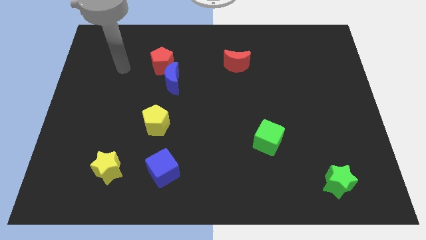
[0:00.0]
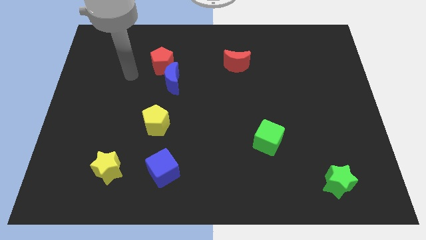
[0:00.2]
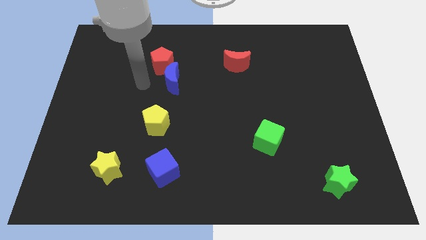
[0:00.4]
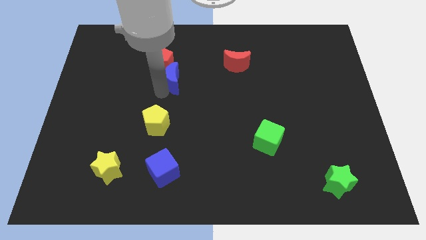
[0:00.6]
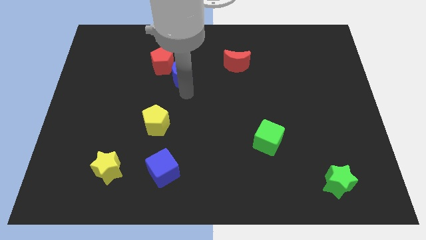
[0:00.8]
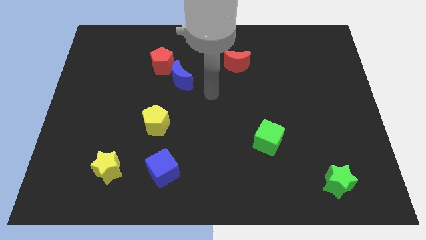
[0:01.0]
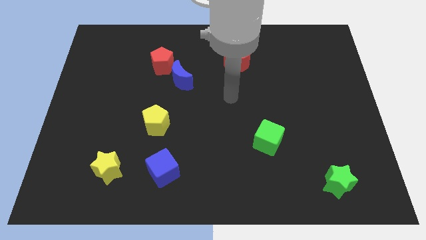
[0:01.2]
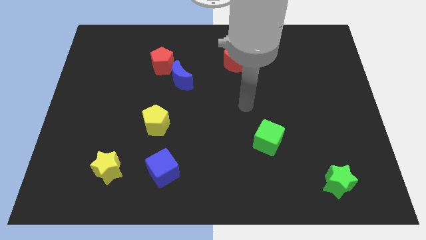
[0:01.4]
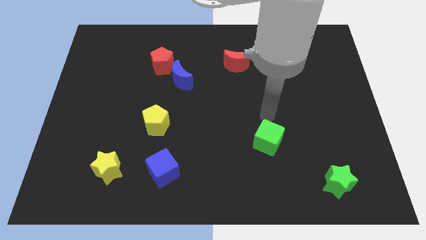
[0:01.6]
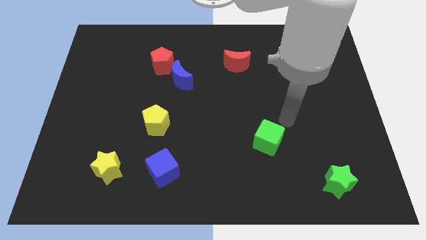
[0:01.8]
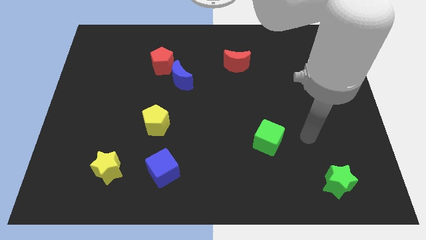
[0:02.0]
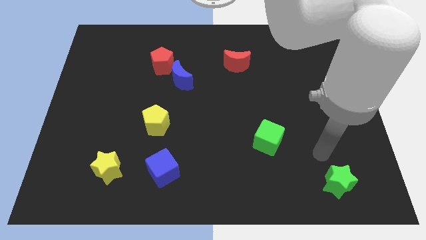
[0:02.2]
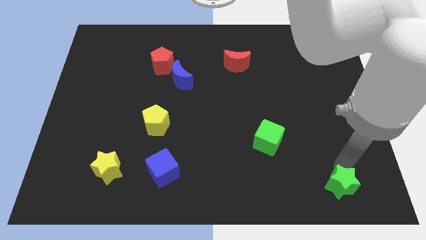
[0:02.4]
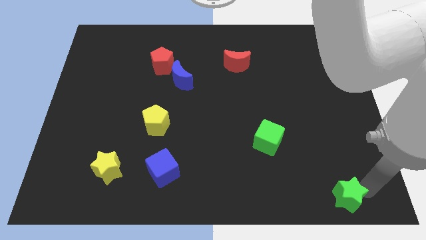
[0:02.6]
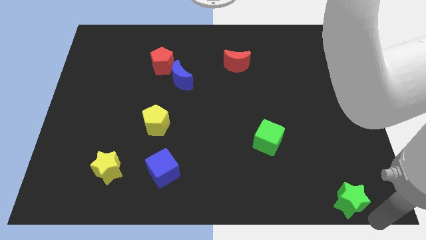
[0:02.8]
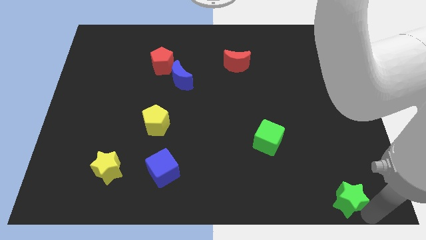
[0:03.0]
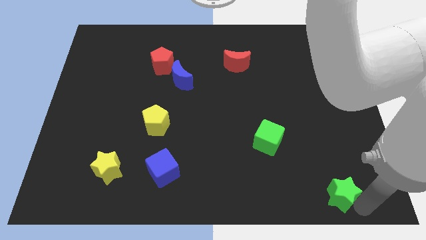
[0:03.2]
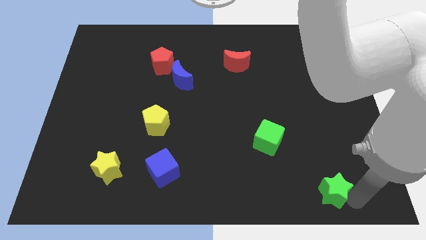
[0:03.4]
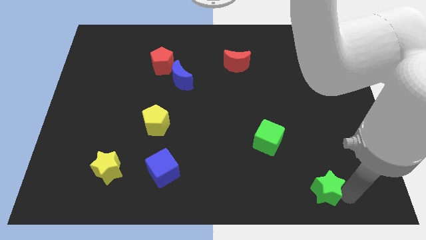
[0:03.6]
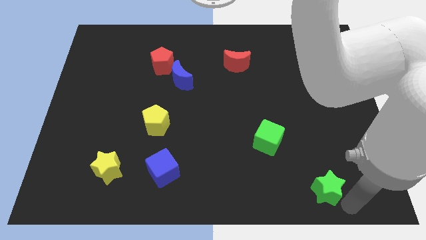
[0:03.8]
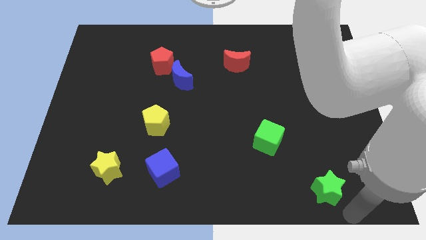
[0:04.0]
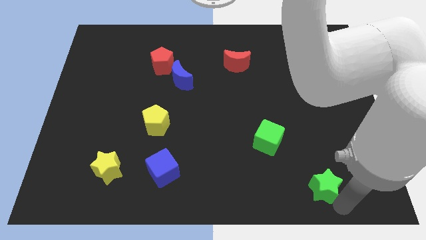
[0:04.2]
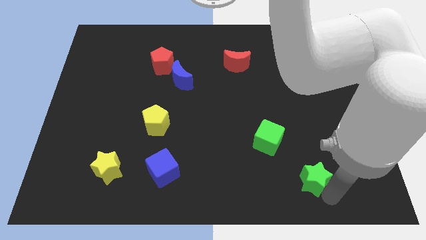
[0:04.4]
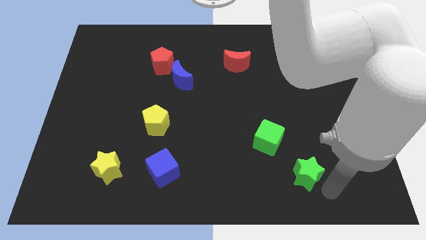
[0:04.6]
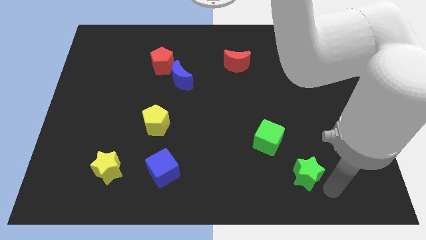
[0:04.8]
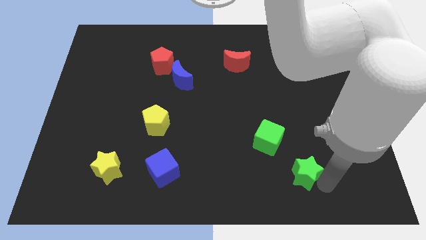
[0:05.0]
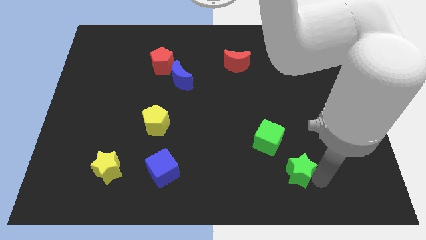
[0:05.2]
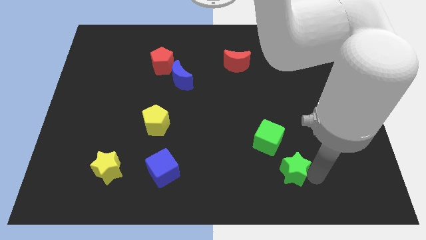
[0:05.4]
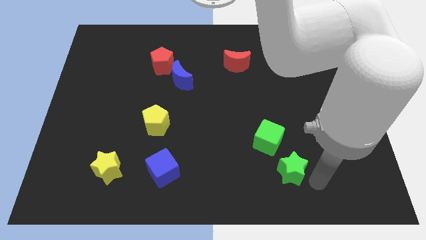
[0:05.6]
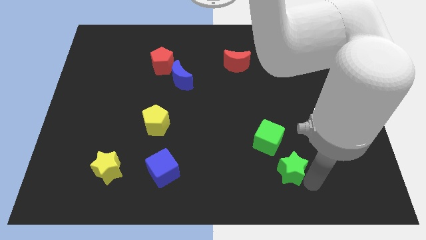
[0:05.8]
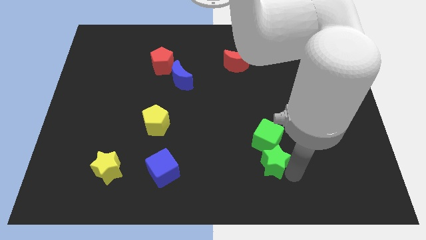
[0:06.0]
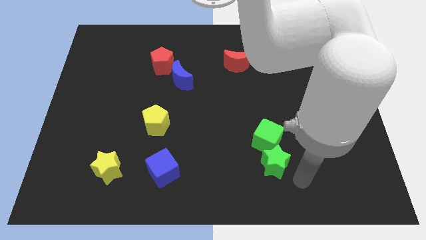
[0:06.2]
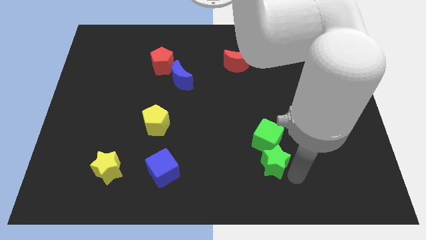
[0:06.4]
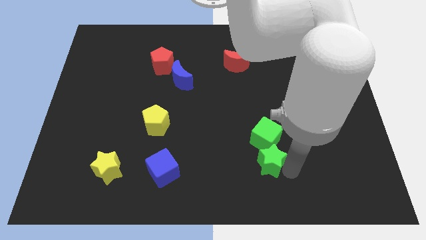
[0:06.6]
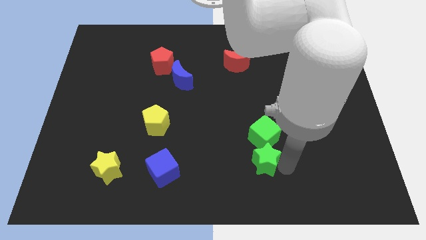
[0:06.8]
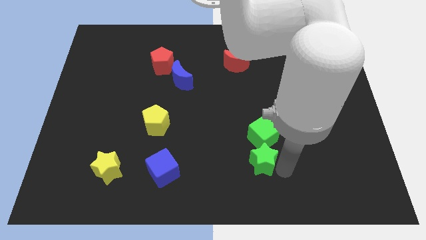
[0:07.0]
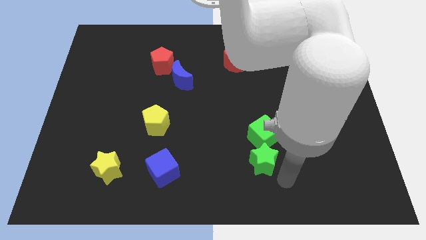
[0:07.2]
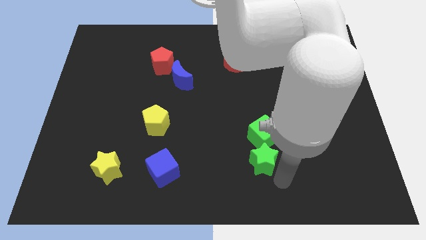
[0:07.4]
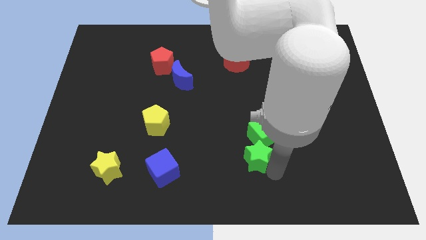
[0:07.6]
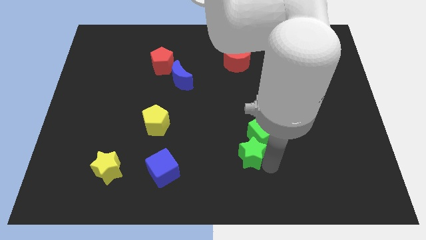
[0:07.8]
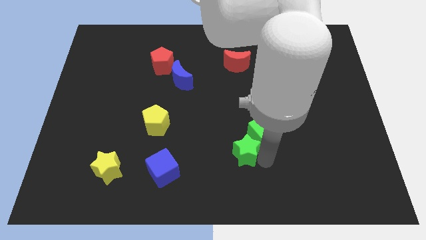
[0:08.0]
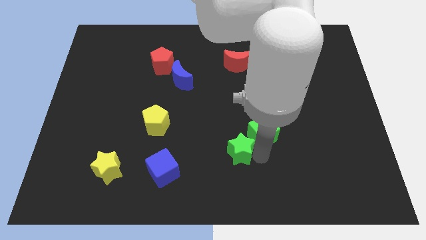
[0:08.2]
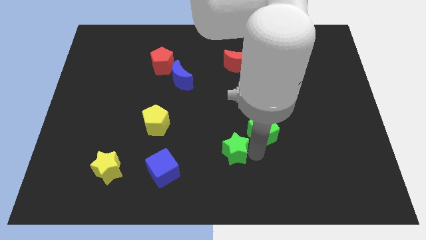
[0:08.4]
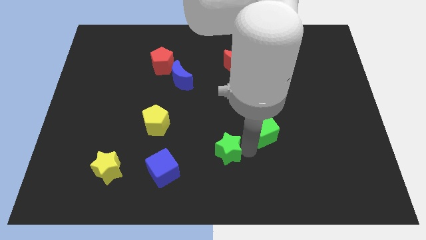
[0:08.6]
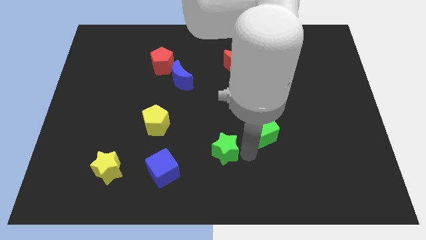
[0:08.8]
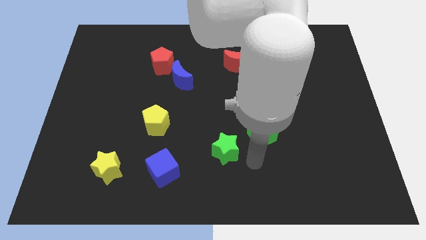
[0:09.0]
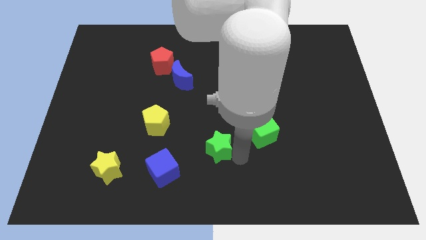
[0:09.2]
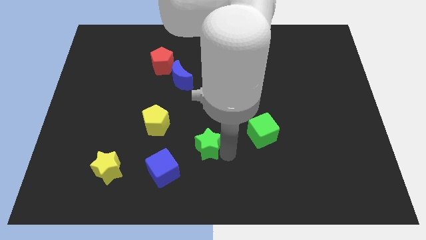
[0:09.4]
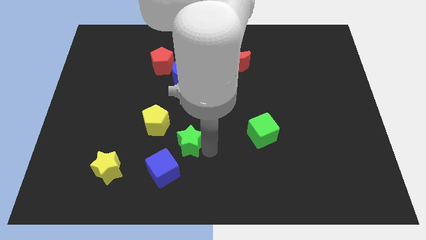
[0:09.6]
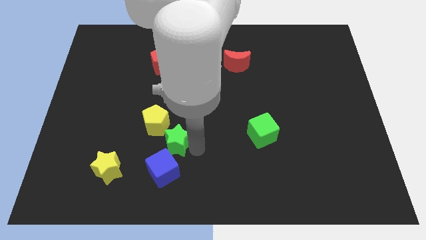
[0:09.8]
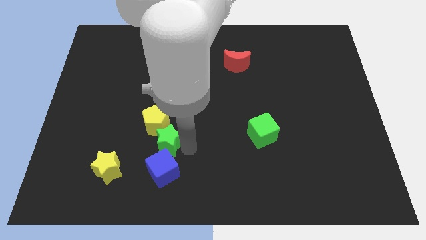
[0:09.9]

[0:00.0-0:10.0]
move the green star to the yellow pentagon

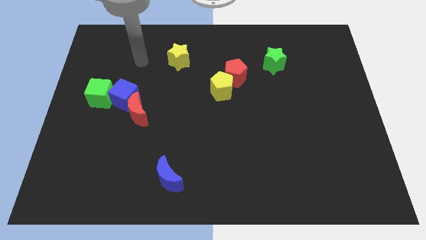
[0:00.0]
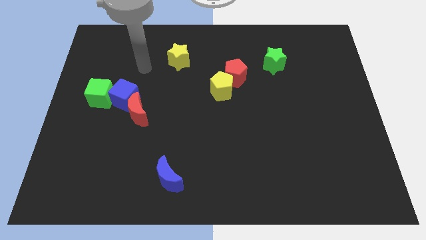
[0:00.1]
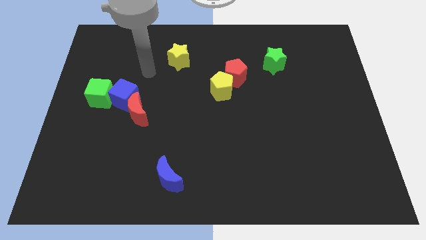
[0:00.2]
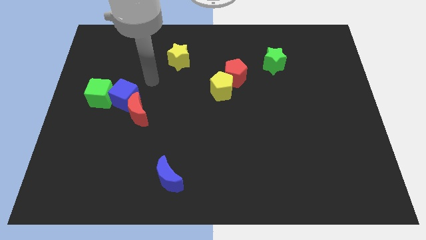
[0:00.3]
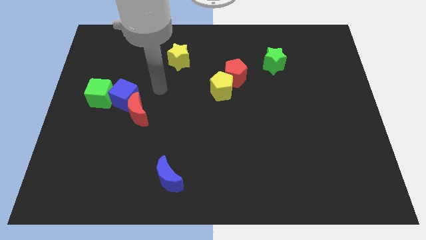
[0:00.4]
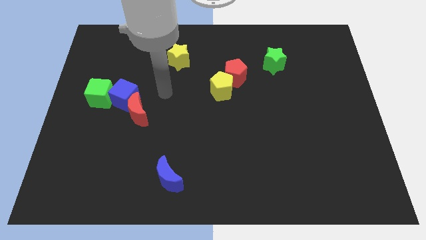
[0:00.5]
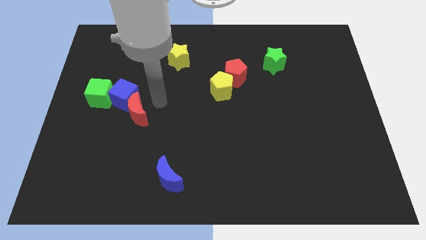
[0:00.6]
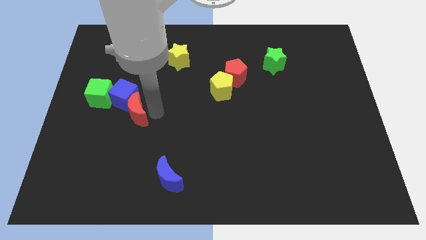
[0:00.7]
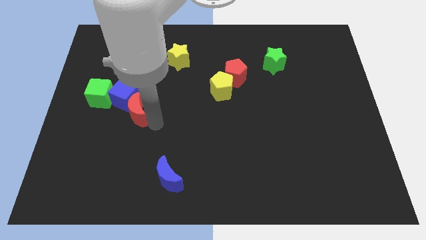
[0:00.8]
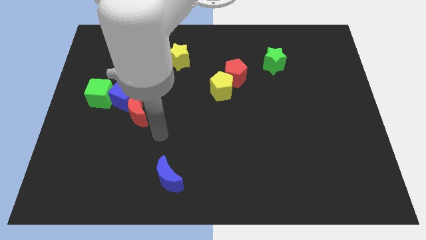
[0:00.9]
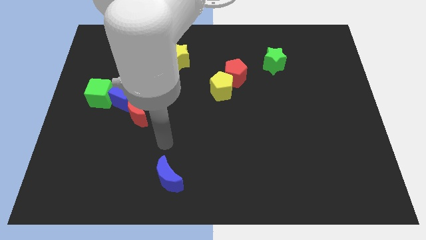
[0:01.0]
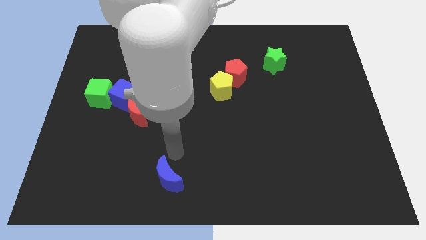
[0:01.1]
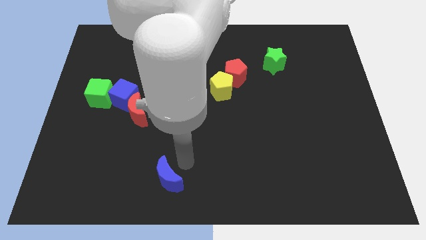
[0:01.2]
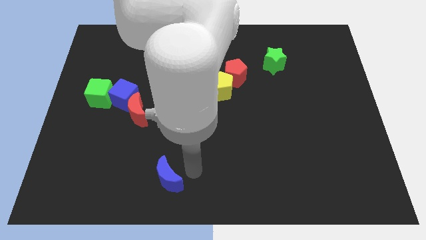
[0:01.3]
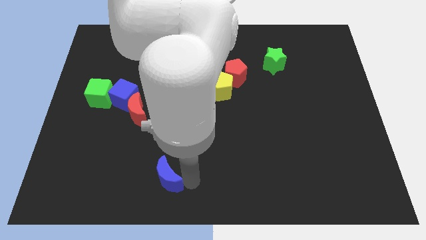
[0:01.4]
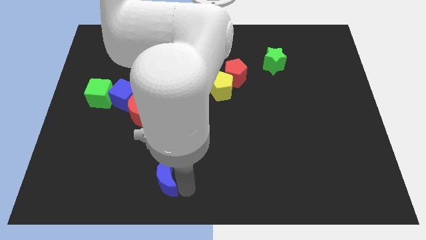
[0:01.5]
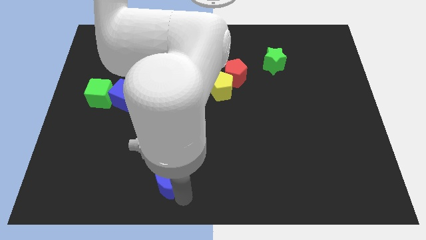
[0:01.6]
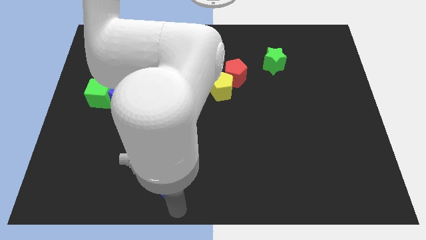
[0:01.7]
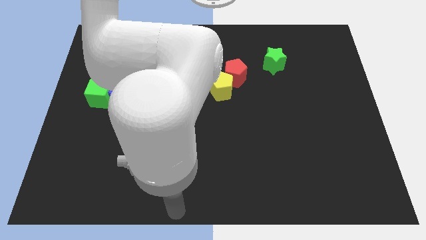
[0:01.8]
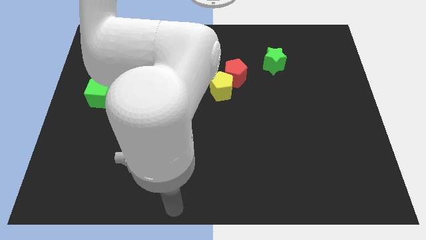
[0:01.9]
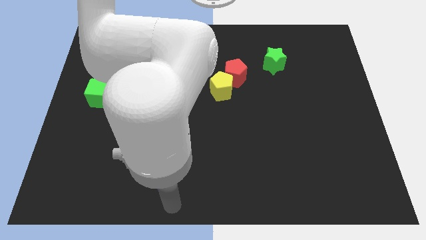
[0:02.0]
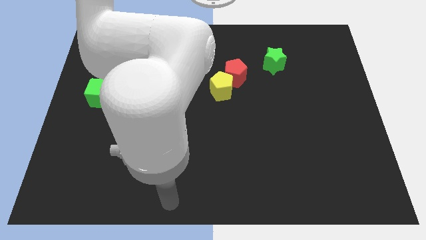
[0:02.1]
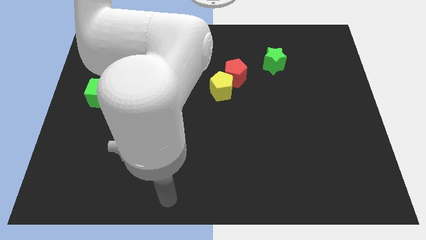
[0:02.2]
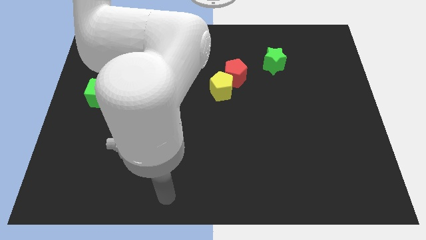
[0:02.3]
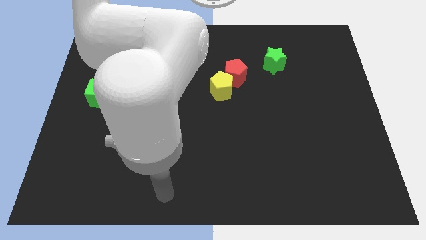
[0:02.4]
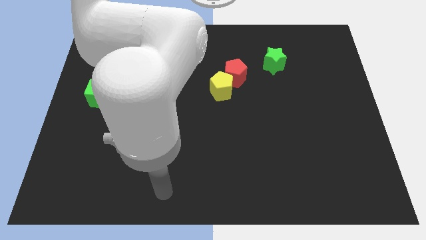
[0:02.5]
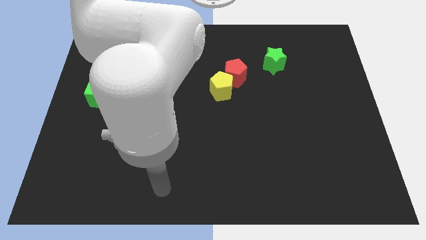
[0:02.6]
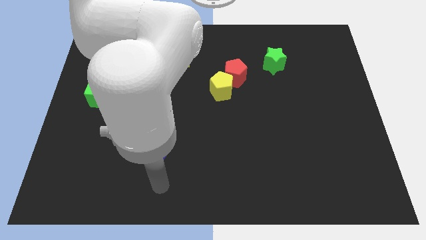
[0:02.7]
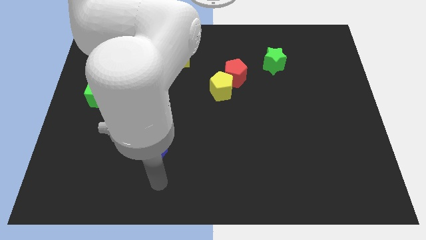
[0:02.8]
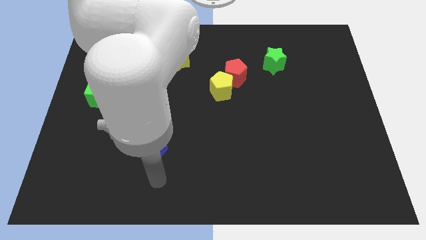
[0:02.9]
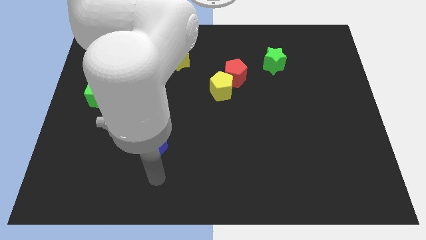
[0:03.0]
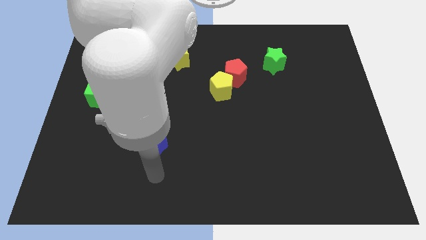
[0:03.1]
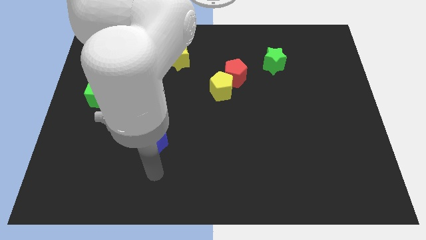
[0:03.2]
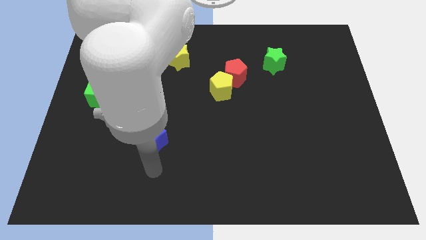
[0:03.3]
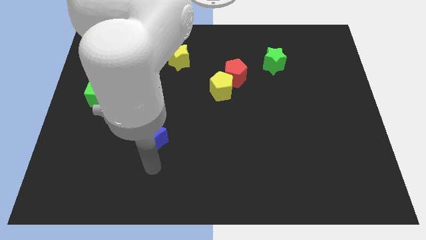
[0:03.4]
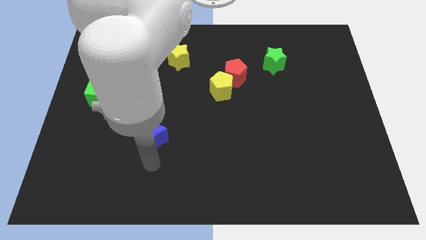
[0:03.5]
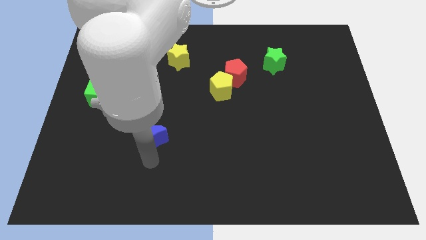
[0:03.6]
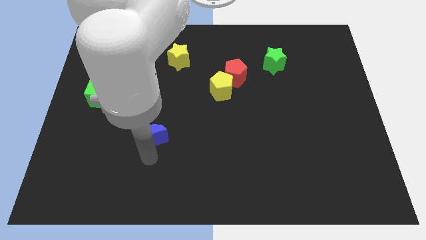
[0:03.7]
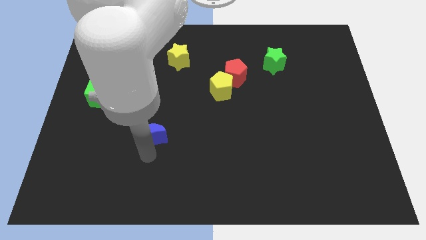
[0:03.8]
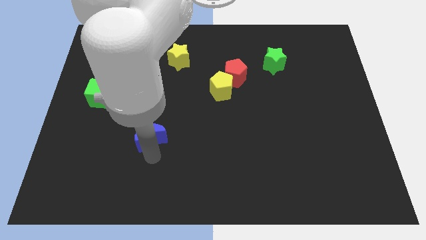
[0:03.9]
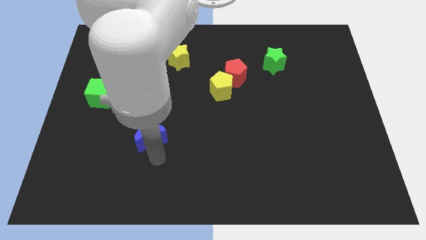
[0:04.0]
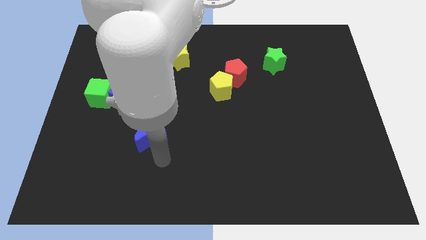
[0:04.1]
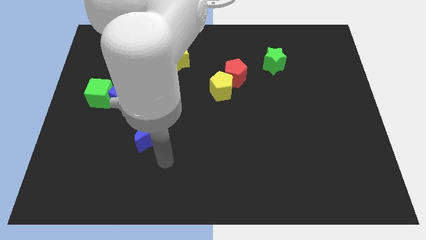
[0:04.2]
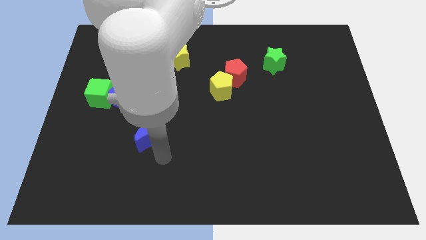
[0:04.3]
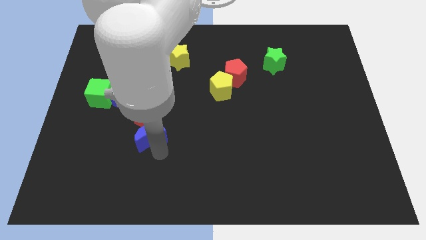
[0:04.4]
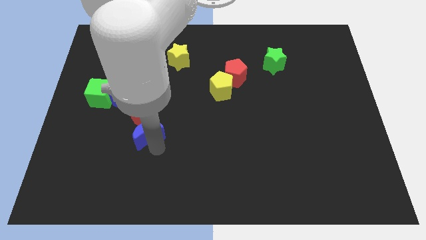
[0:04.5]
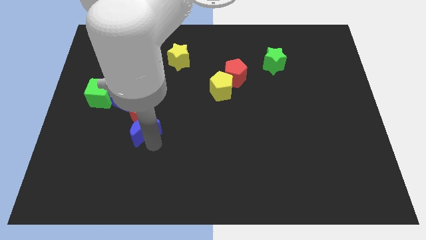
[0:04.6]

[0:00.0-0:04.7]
push the blue moon towards the red moon
